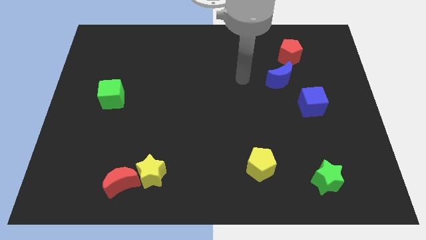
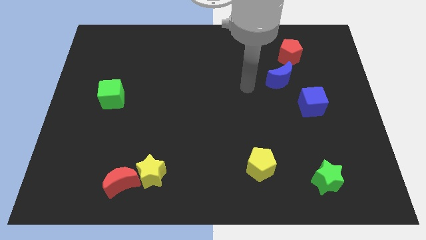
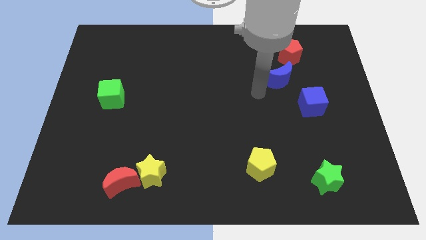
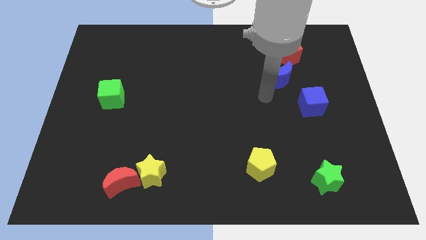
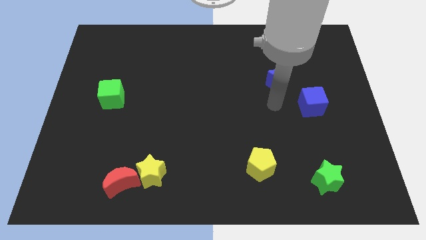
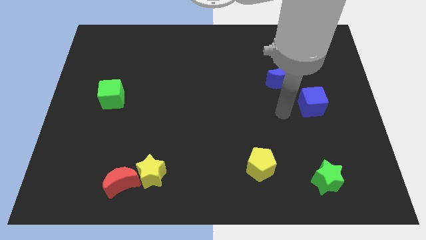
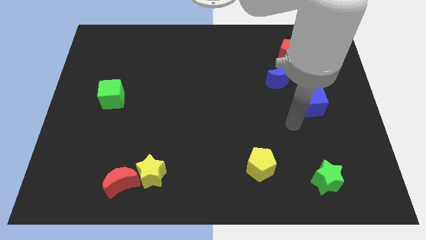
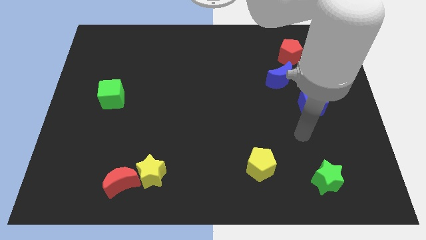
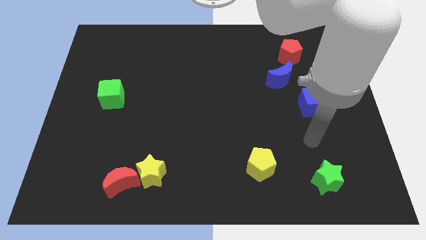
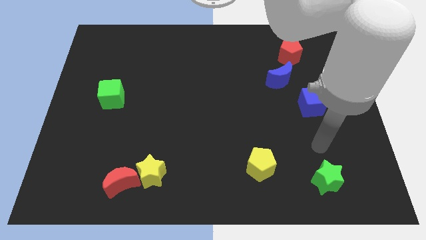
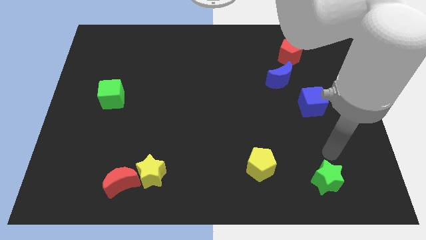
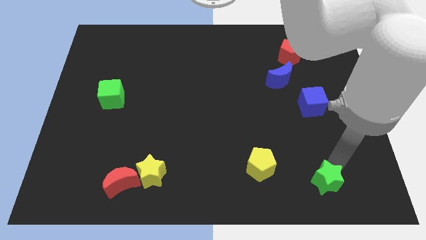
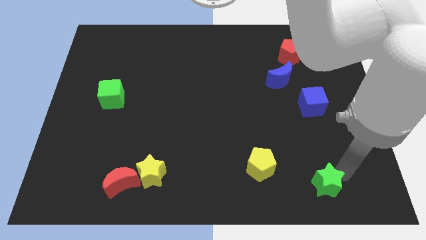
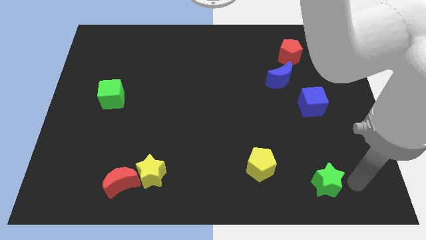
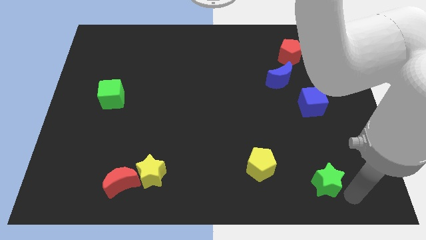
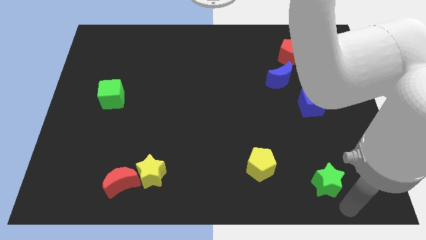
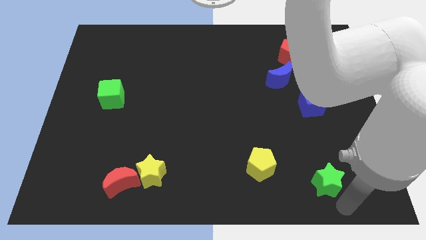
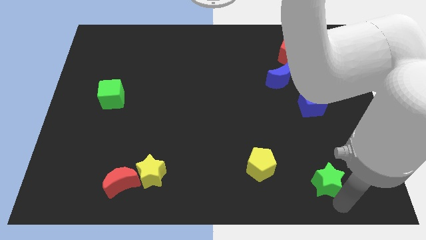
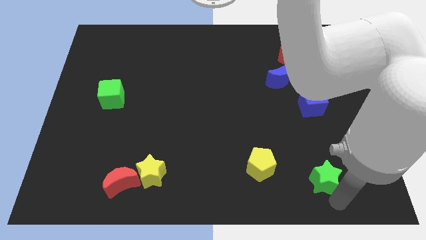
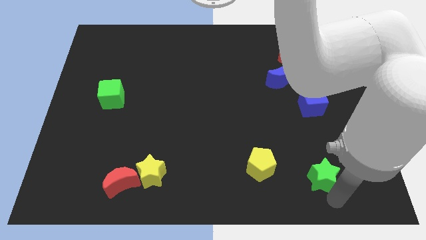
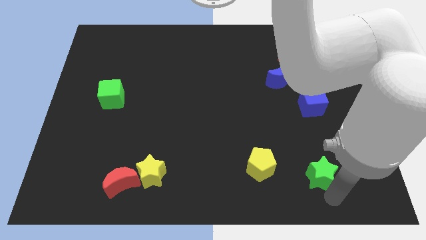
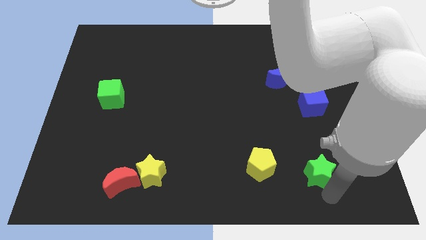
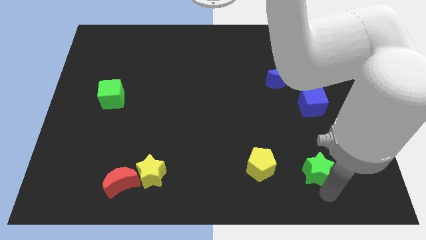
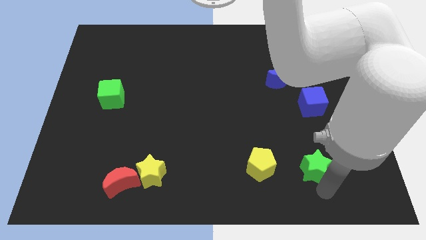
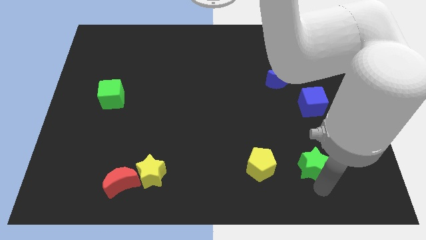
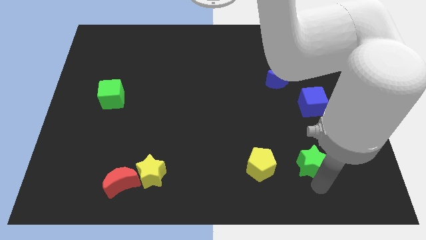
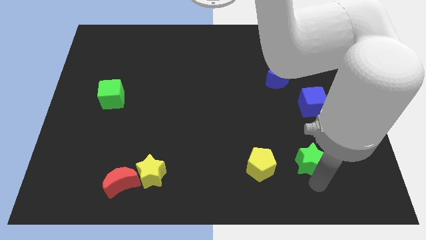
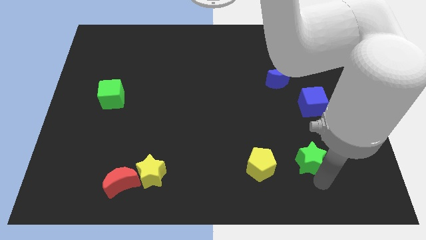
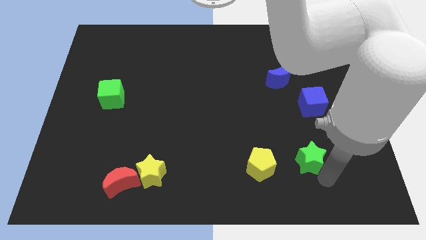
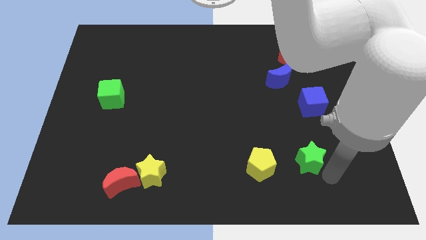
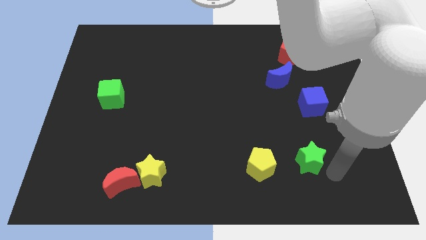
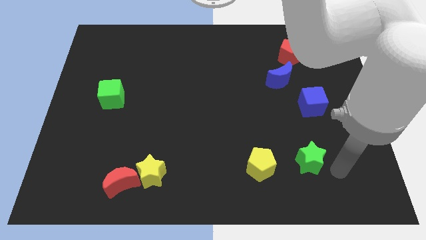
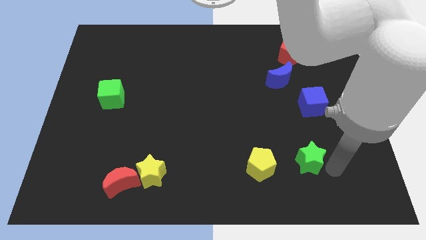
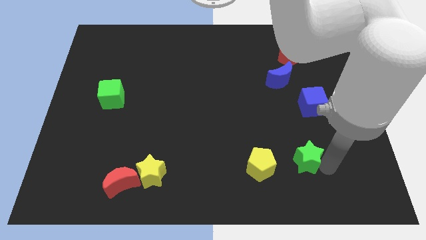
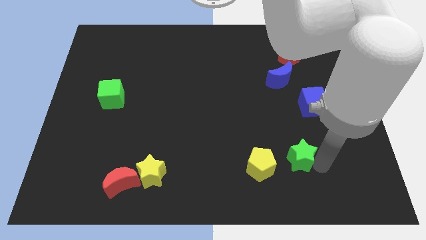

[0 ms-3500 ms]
move the green star slightly up and left diagonally

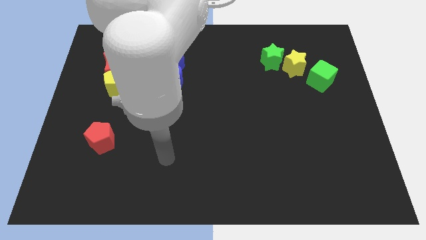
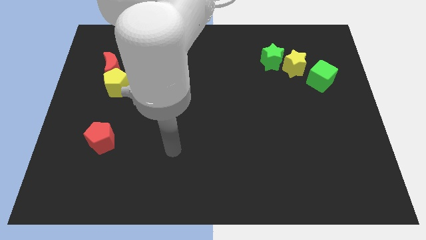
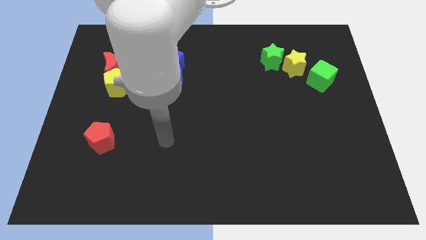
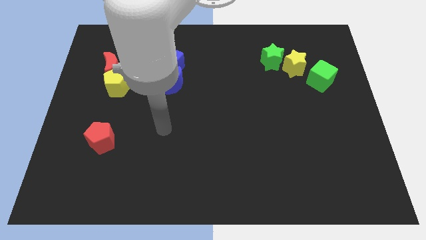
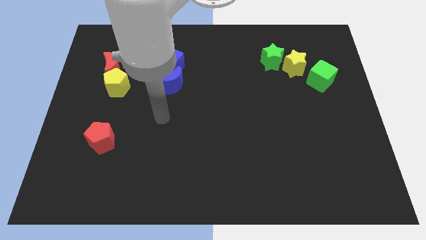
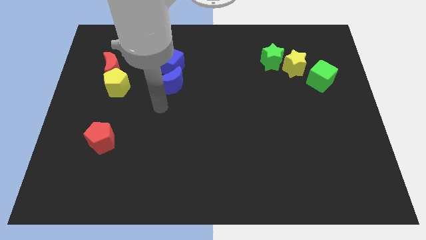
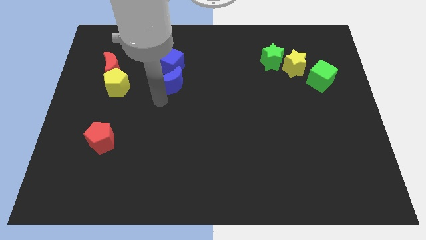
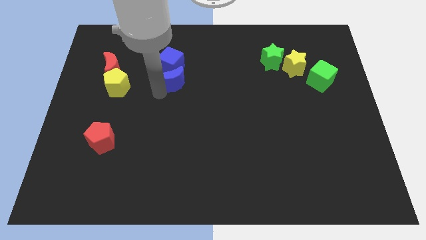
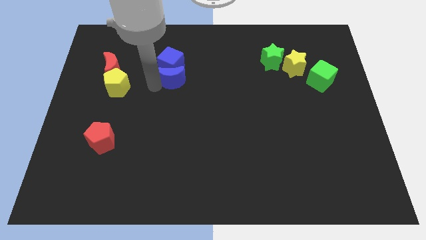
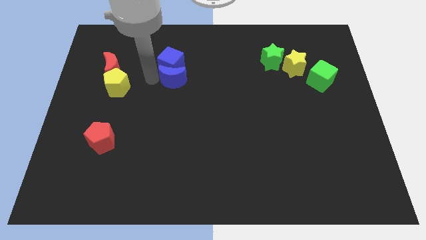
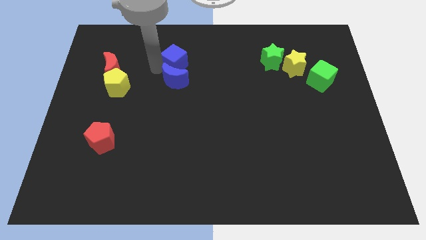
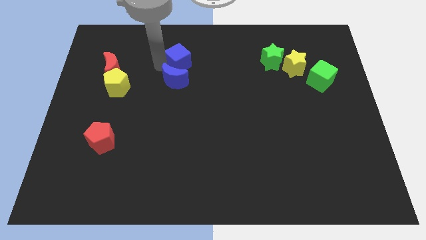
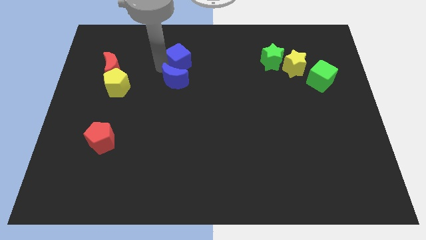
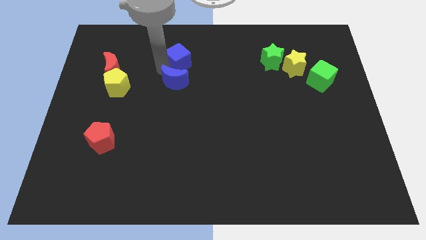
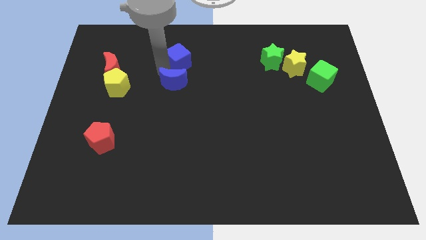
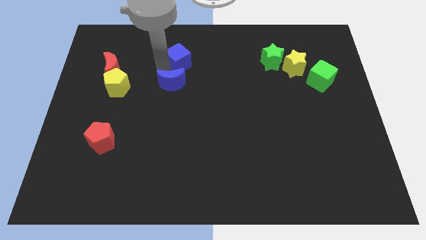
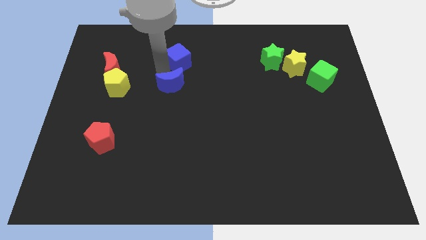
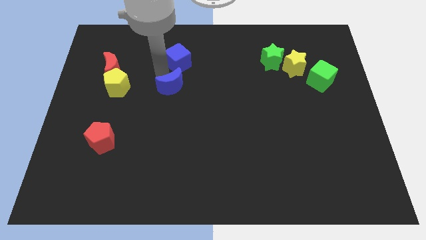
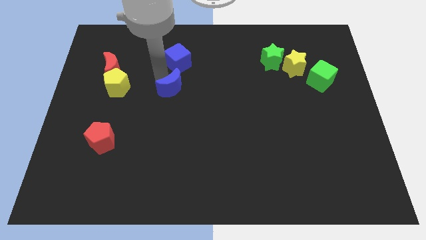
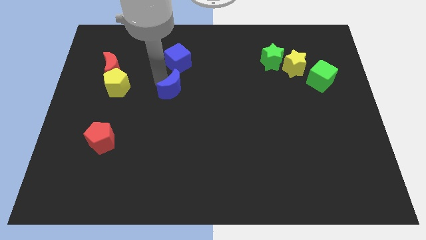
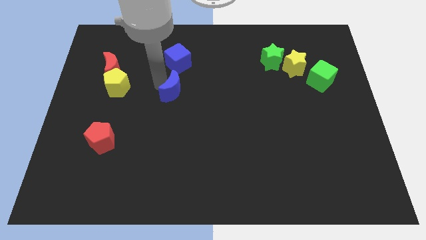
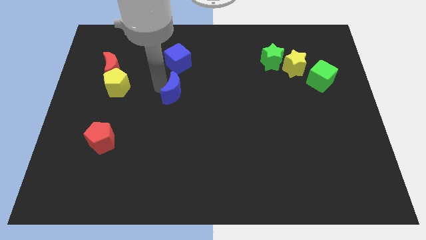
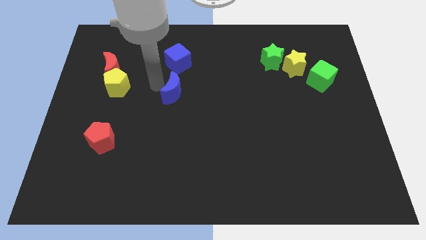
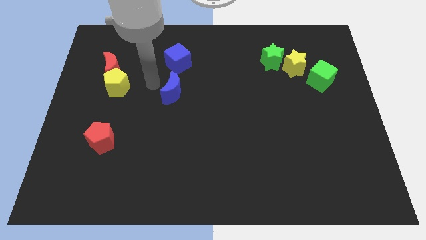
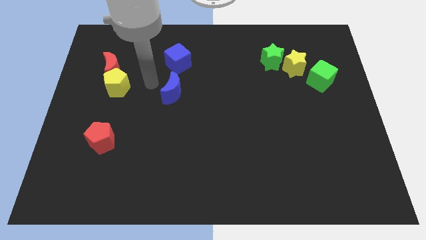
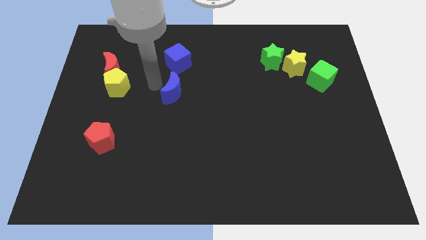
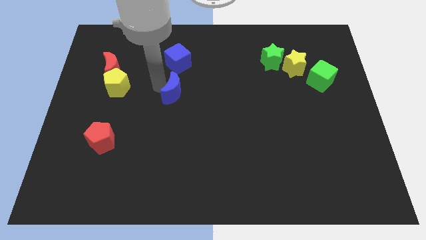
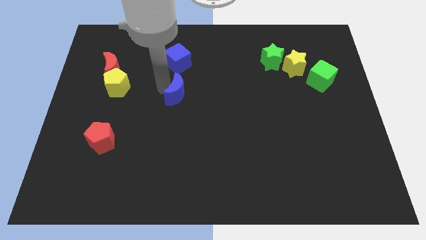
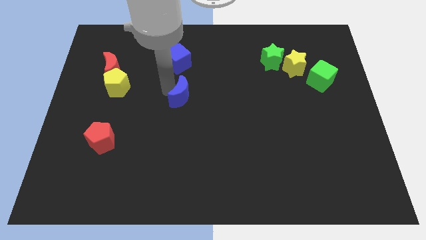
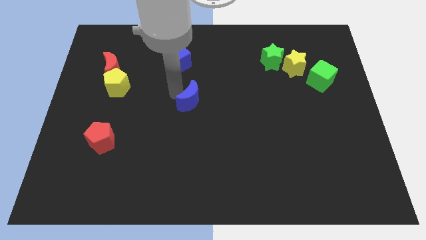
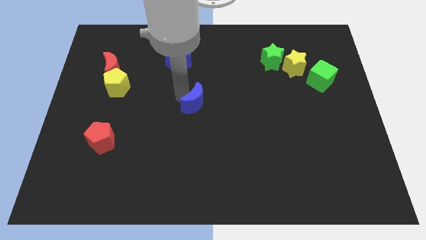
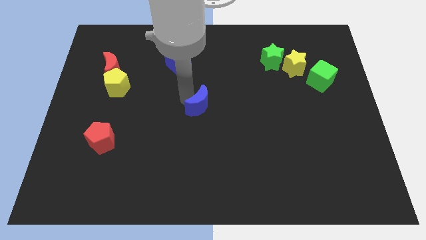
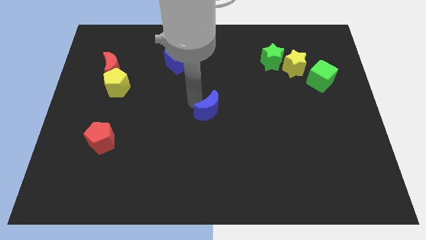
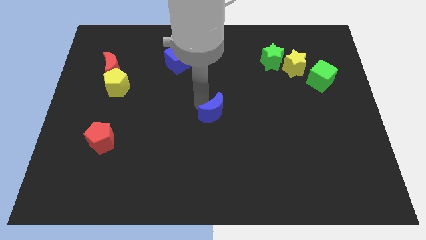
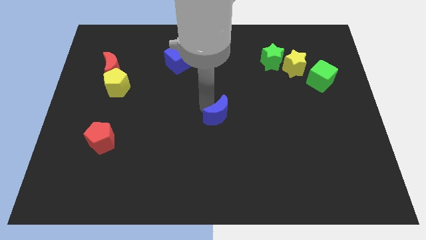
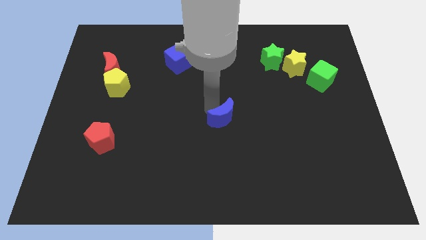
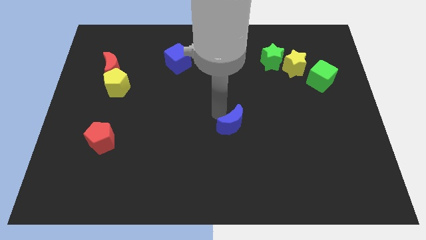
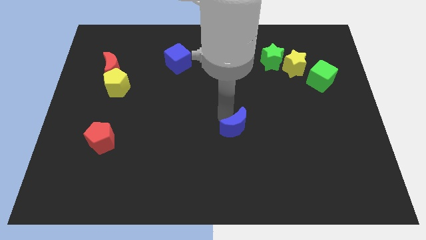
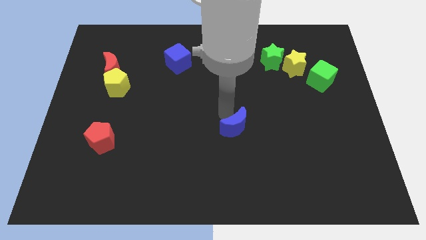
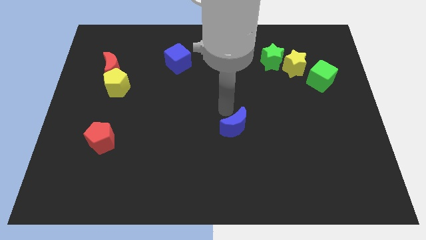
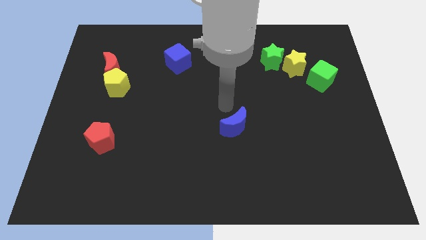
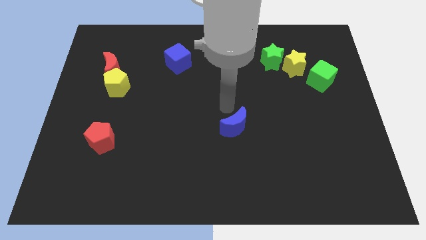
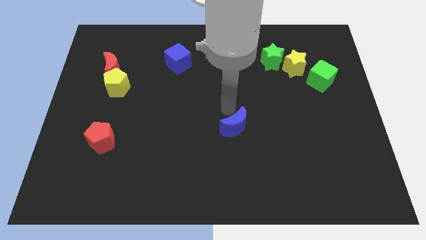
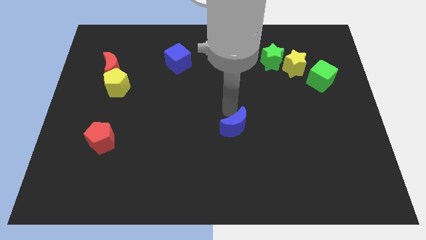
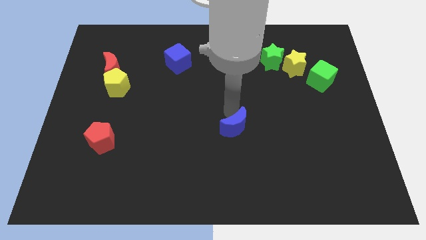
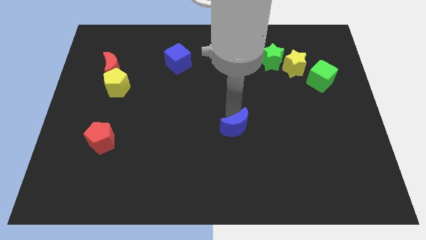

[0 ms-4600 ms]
move the blue moon downwards and right
